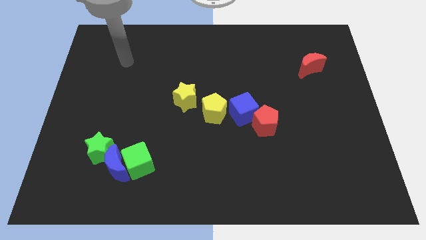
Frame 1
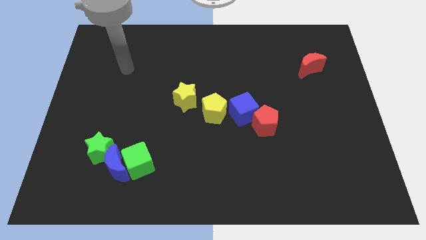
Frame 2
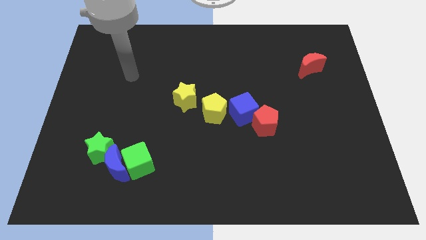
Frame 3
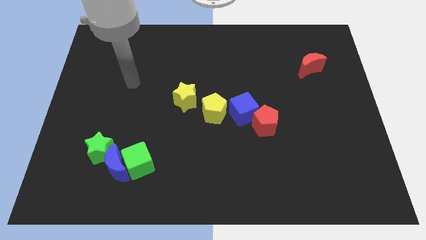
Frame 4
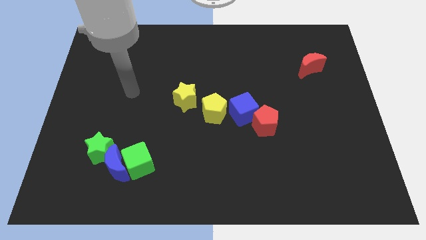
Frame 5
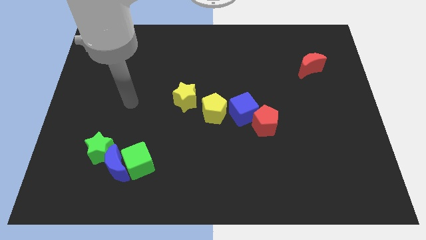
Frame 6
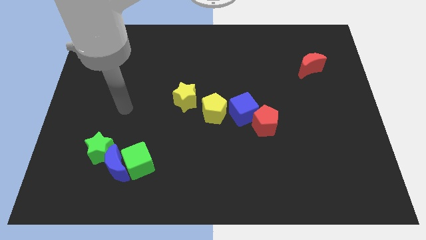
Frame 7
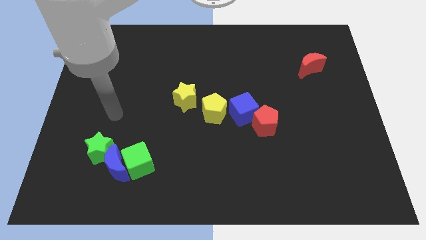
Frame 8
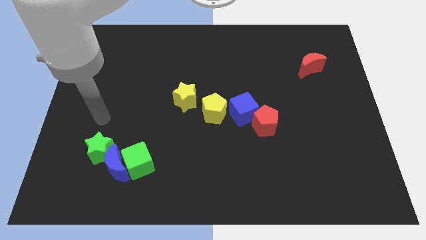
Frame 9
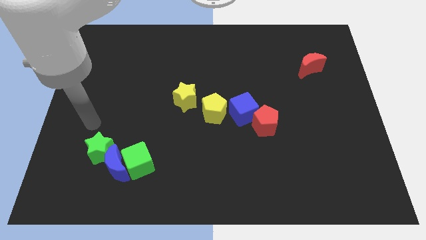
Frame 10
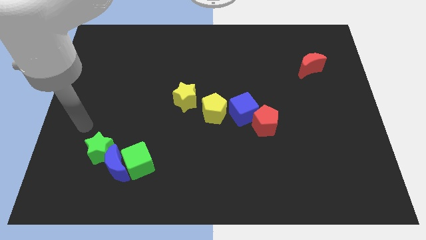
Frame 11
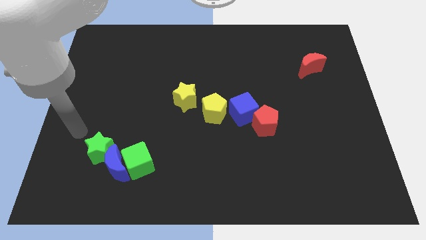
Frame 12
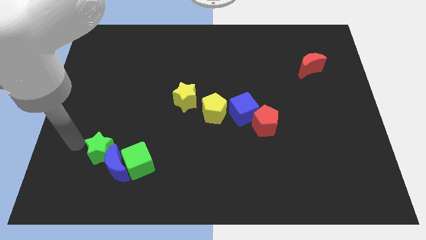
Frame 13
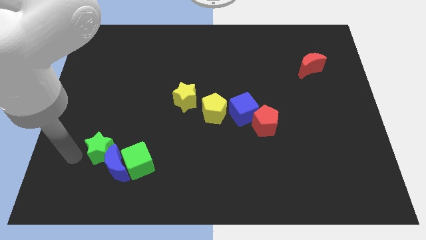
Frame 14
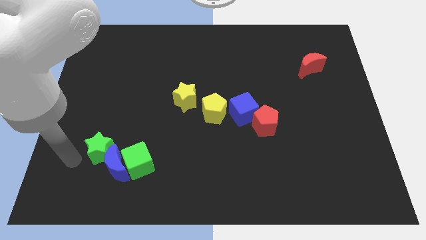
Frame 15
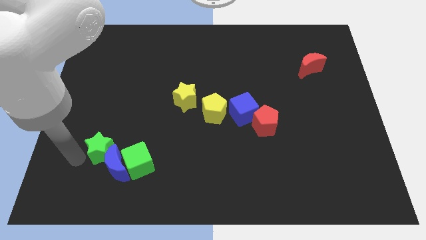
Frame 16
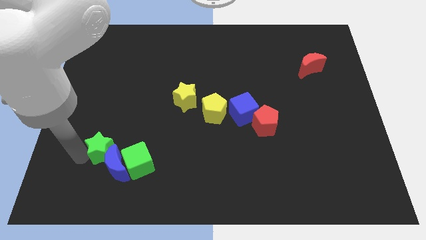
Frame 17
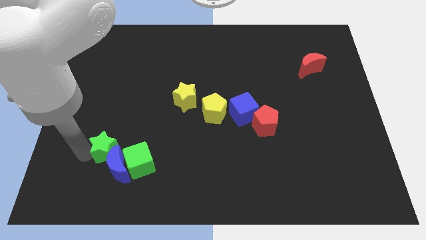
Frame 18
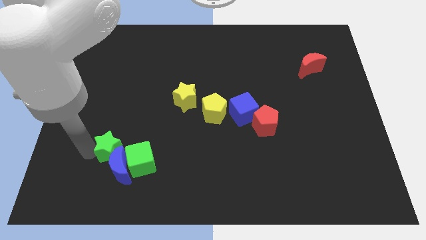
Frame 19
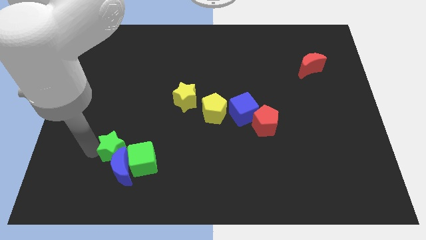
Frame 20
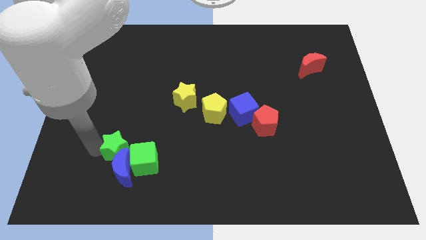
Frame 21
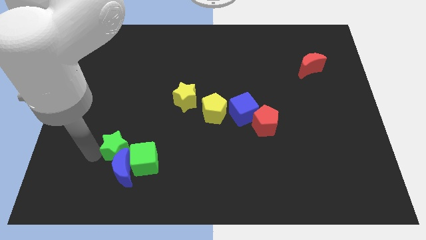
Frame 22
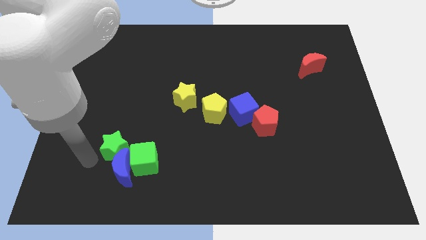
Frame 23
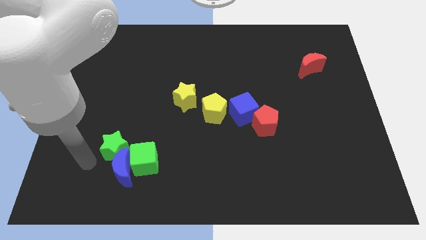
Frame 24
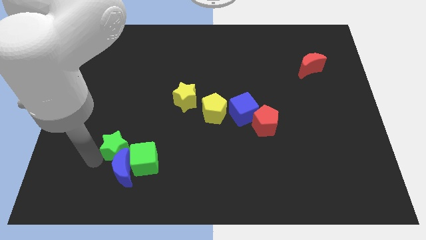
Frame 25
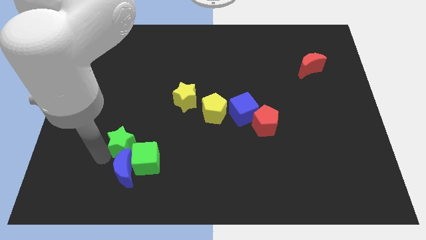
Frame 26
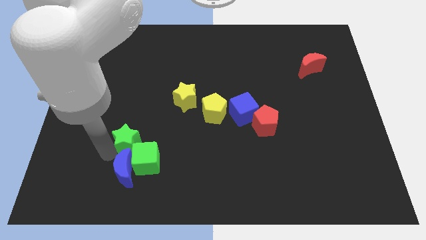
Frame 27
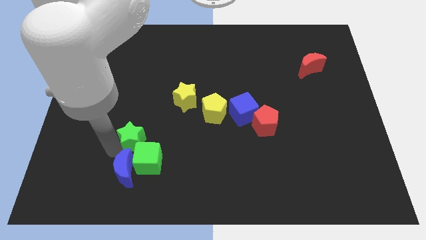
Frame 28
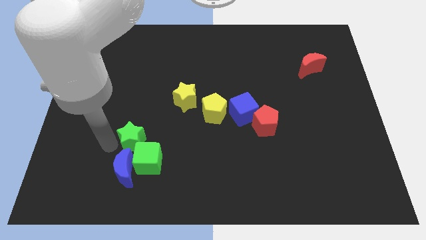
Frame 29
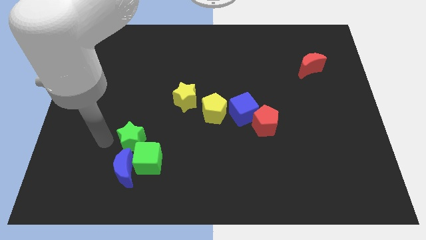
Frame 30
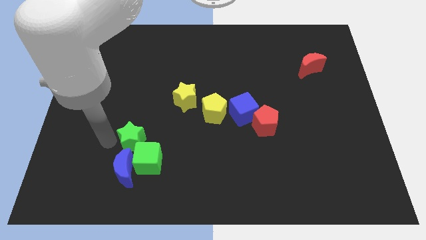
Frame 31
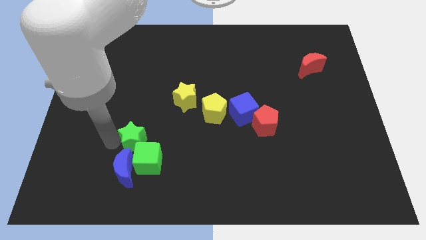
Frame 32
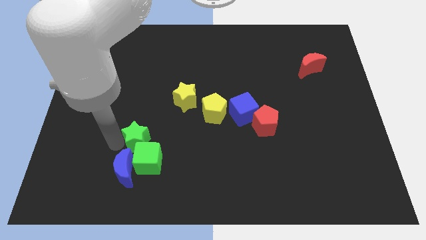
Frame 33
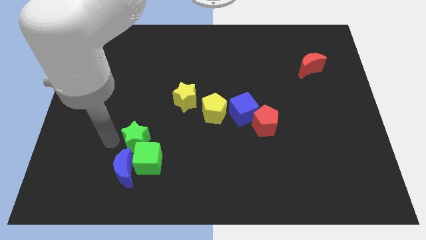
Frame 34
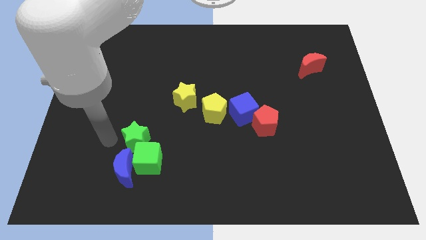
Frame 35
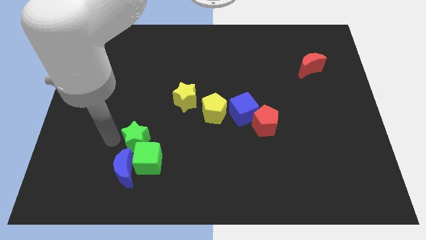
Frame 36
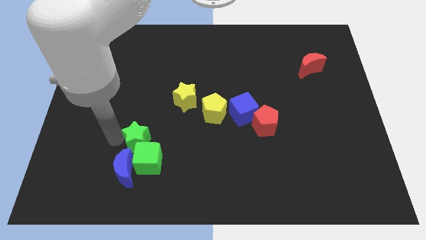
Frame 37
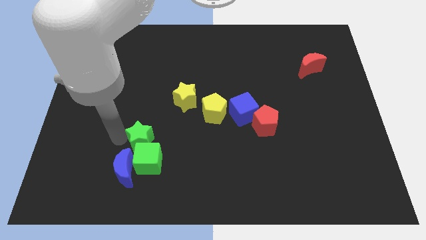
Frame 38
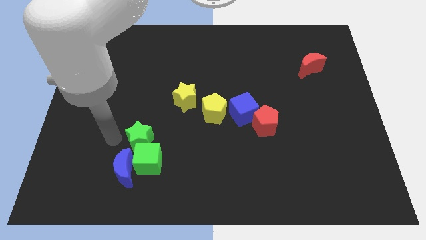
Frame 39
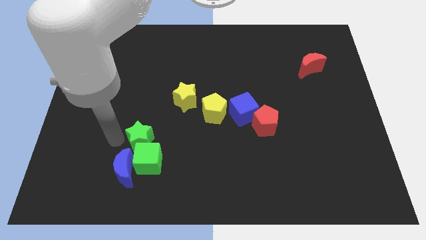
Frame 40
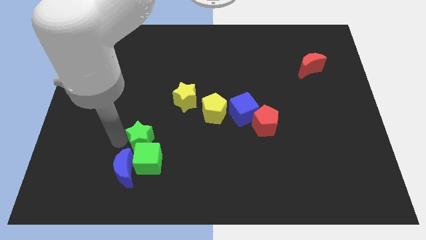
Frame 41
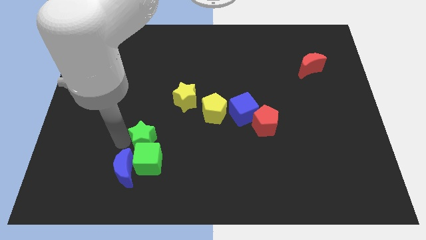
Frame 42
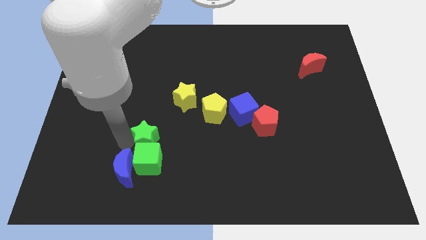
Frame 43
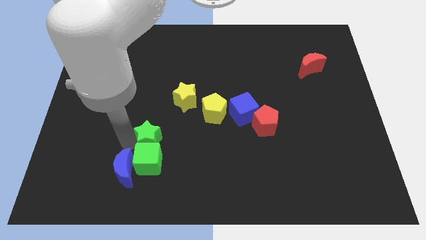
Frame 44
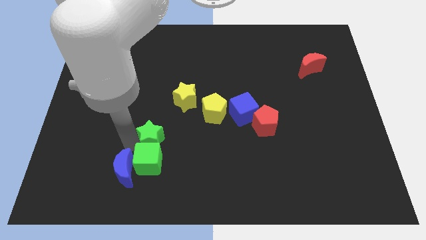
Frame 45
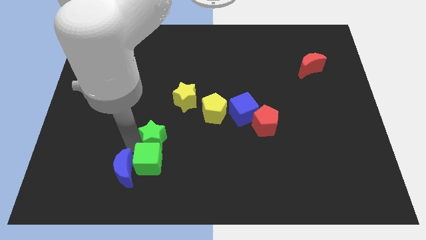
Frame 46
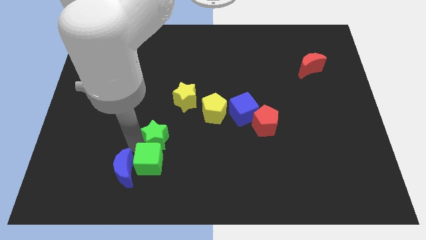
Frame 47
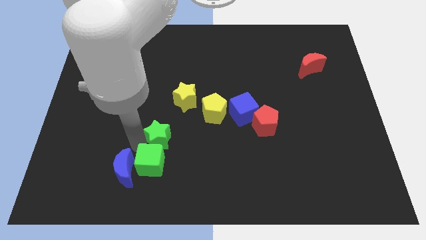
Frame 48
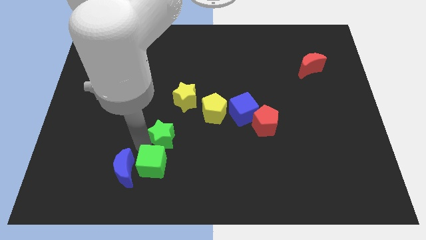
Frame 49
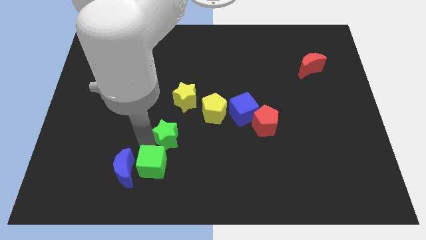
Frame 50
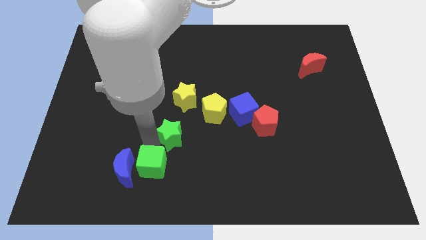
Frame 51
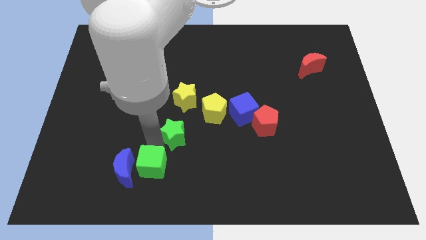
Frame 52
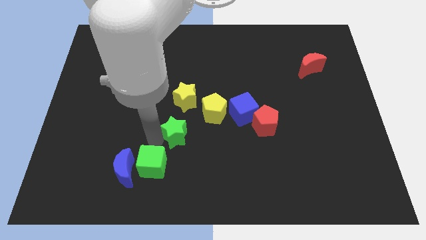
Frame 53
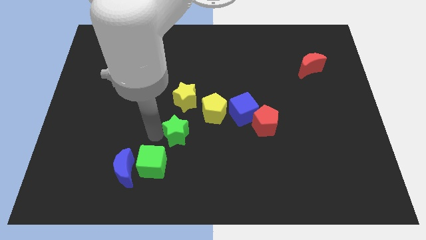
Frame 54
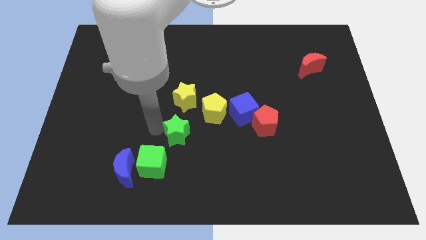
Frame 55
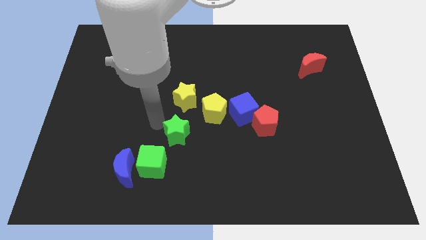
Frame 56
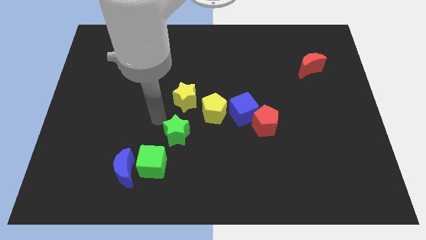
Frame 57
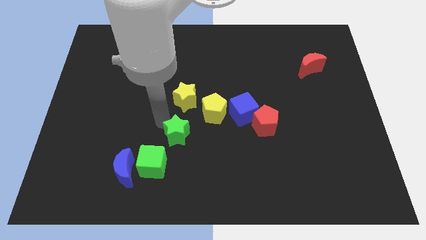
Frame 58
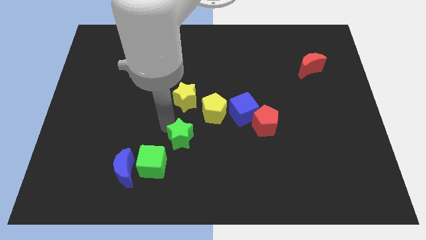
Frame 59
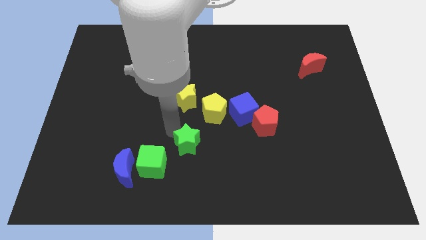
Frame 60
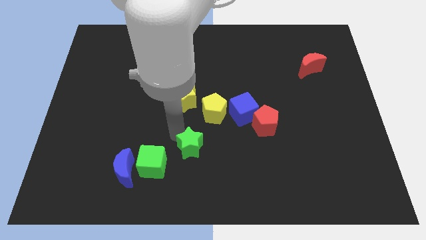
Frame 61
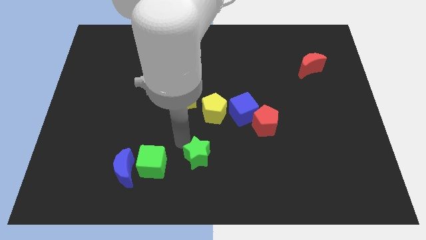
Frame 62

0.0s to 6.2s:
slide the green star right

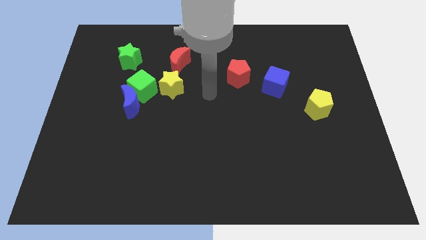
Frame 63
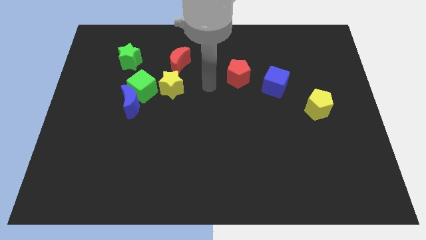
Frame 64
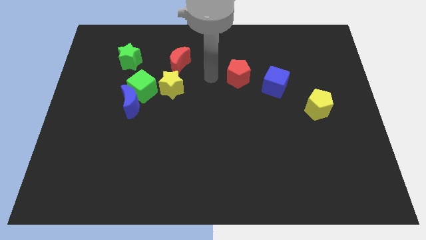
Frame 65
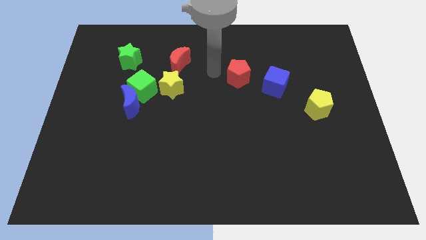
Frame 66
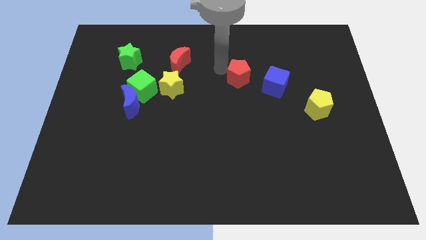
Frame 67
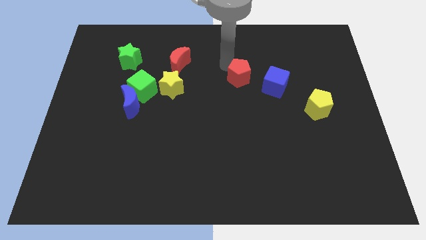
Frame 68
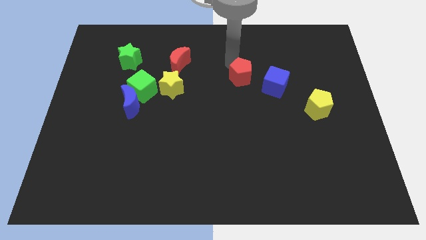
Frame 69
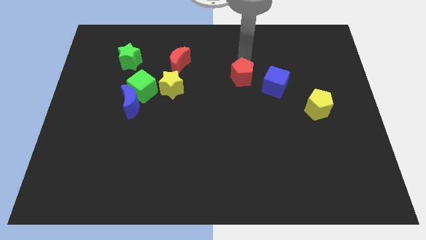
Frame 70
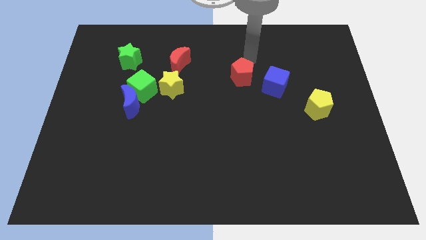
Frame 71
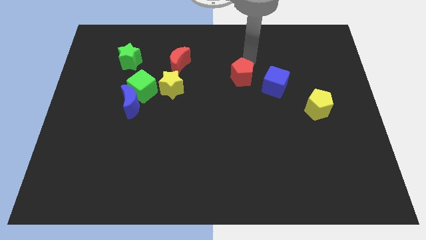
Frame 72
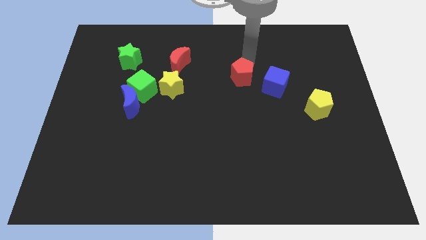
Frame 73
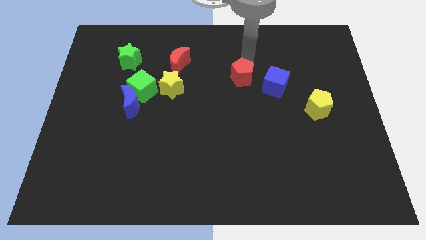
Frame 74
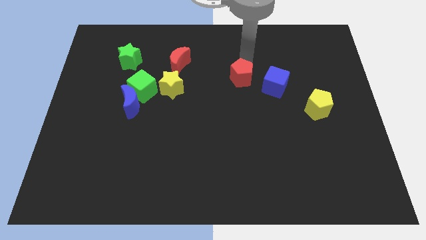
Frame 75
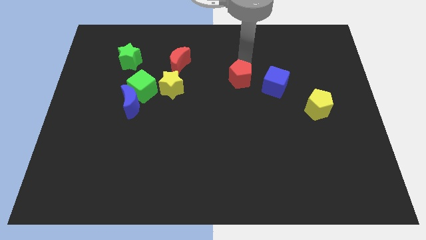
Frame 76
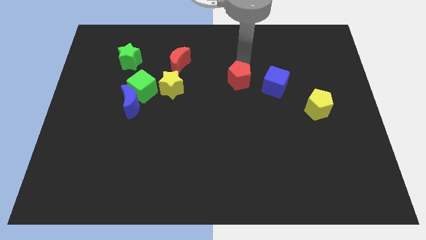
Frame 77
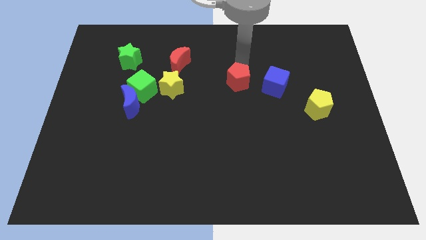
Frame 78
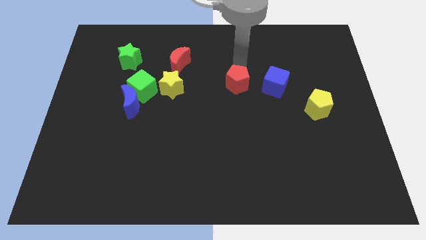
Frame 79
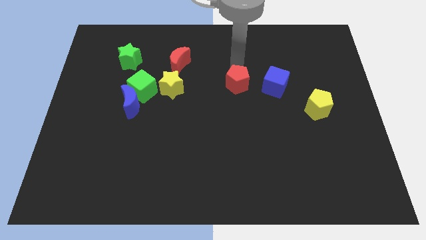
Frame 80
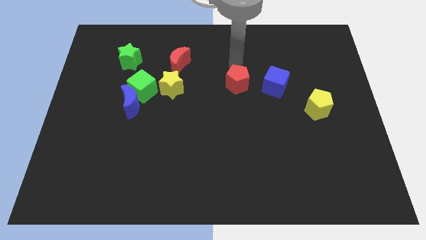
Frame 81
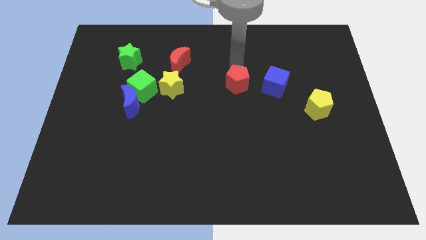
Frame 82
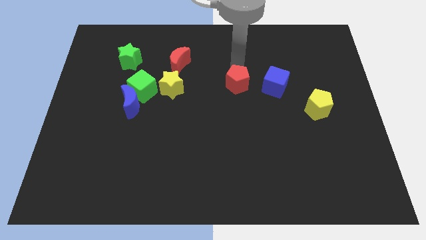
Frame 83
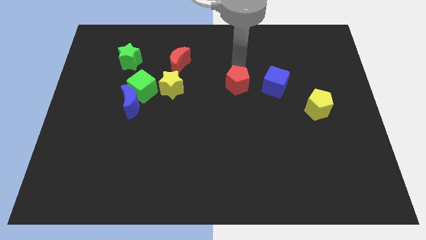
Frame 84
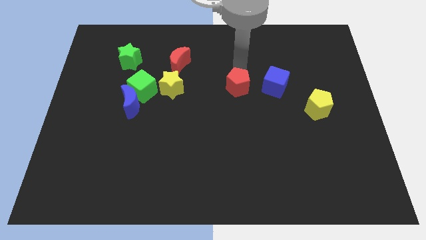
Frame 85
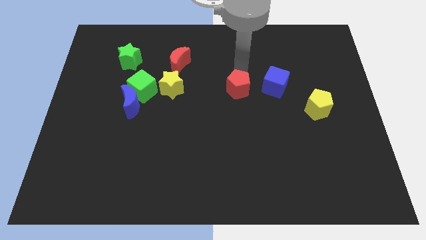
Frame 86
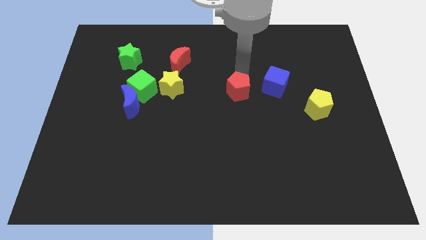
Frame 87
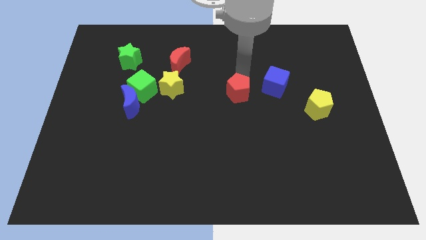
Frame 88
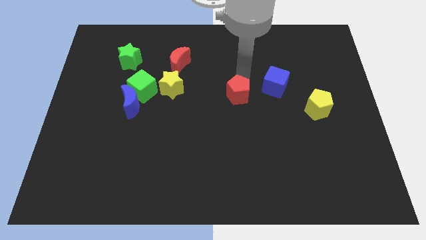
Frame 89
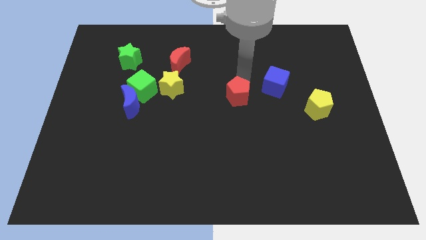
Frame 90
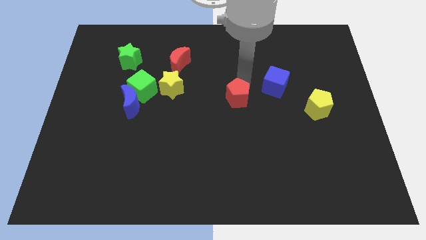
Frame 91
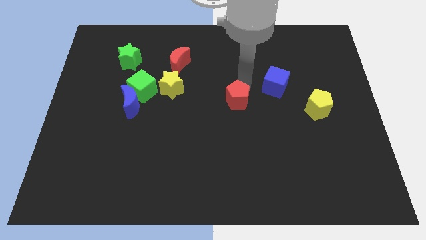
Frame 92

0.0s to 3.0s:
slightly move the red pentagon downwards
